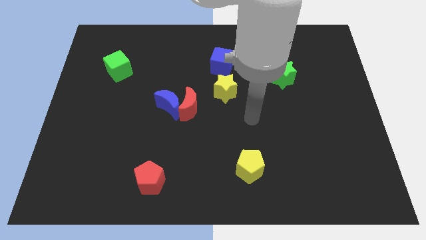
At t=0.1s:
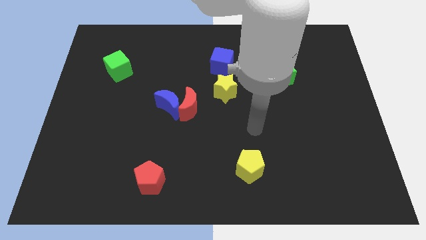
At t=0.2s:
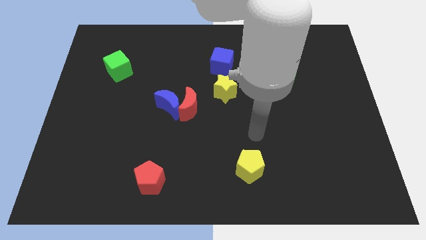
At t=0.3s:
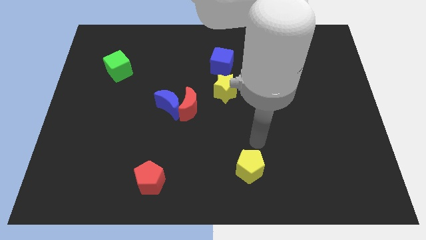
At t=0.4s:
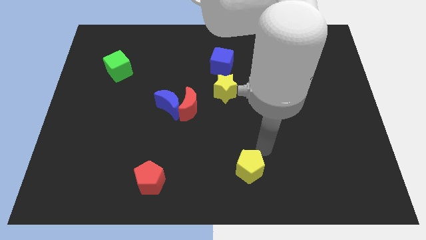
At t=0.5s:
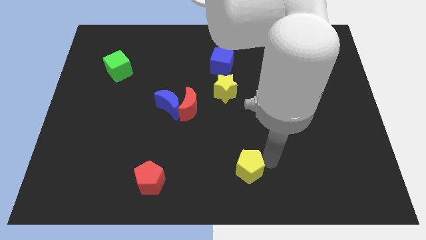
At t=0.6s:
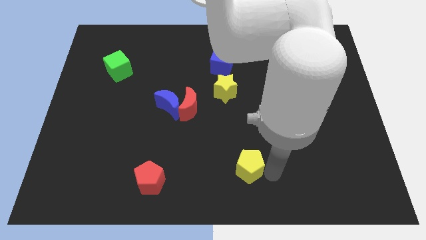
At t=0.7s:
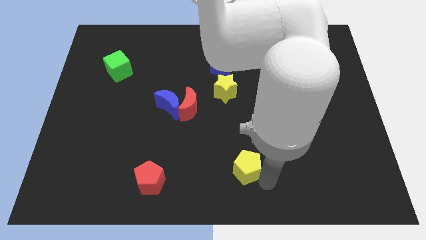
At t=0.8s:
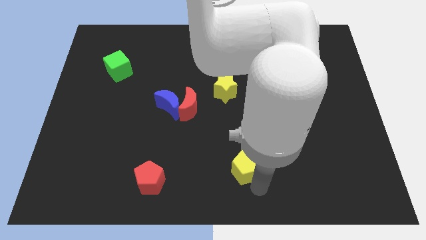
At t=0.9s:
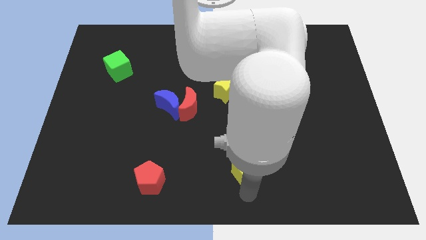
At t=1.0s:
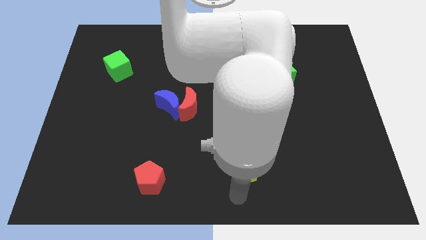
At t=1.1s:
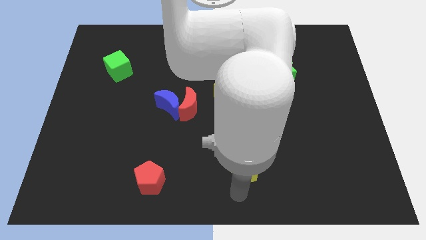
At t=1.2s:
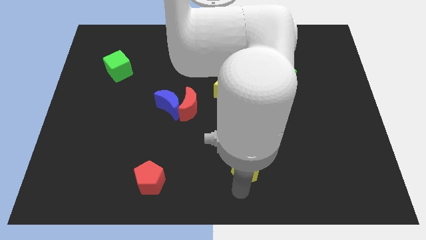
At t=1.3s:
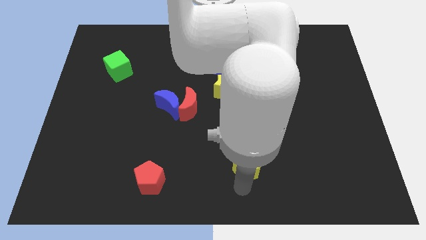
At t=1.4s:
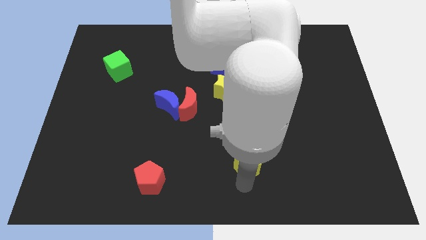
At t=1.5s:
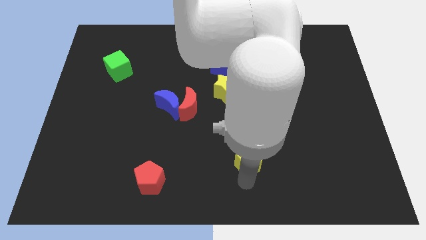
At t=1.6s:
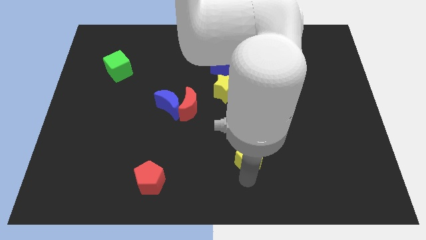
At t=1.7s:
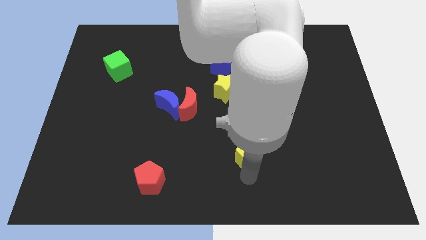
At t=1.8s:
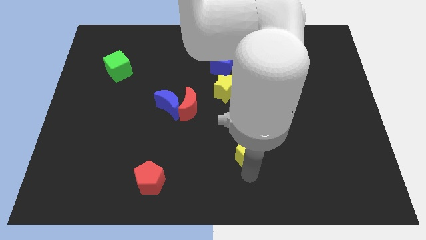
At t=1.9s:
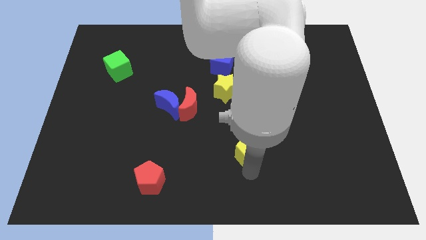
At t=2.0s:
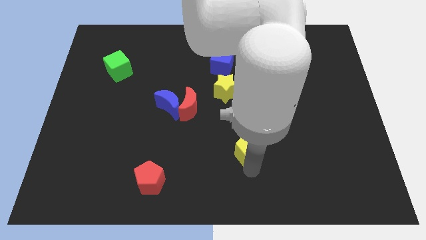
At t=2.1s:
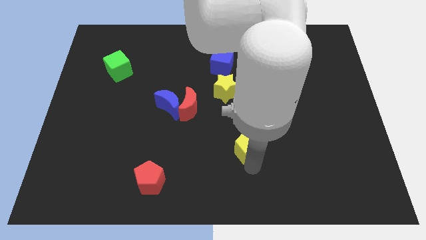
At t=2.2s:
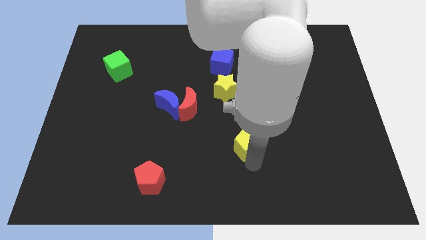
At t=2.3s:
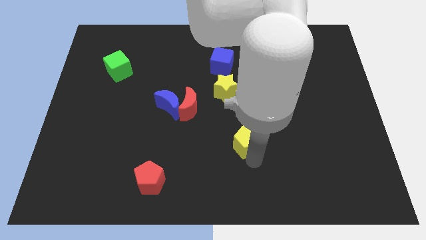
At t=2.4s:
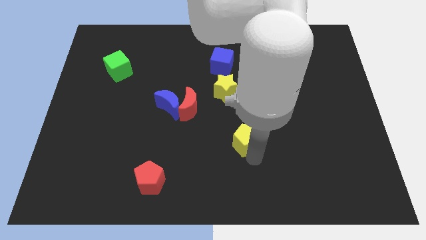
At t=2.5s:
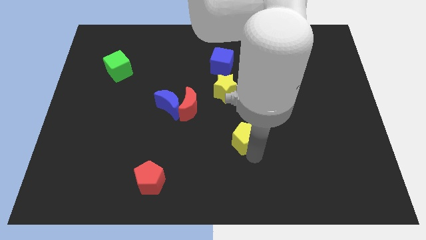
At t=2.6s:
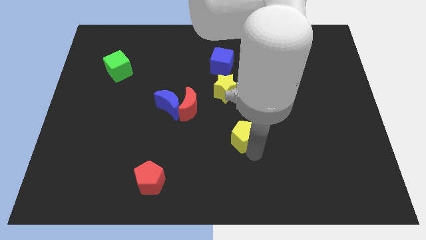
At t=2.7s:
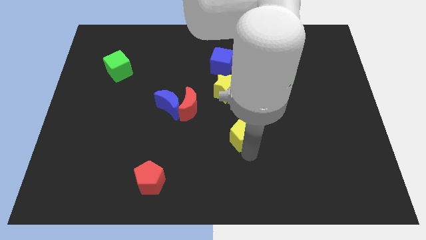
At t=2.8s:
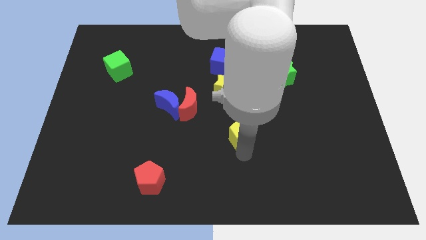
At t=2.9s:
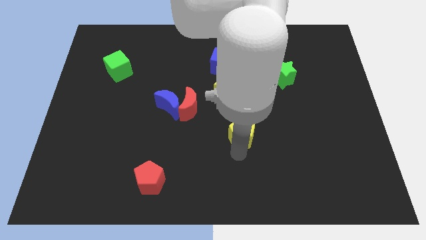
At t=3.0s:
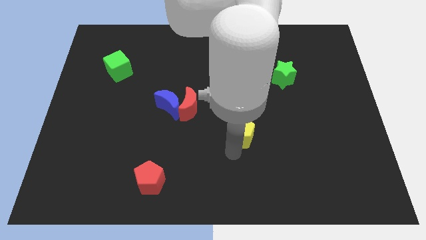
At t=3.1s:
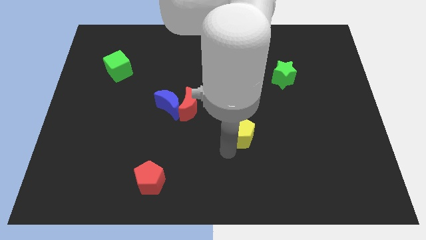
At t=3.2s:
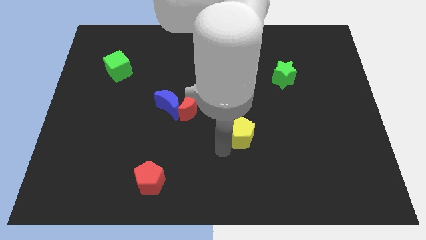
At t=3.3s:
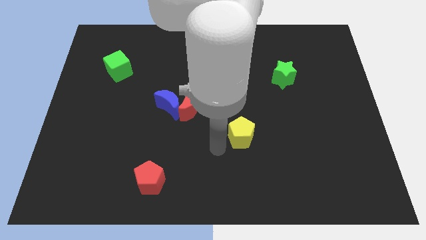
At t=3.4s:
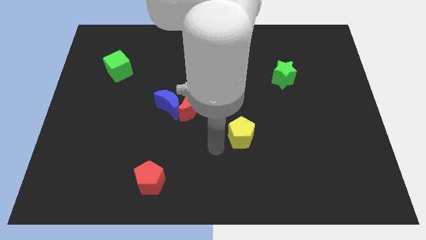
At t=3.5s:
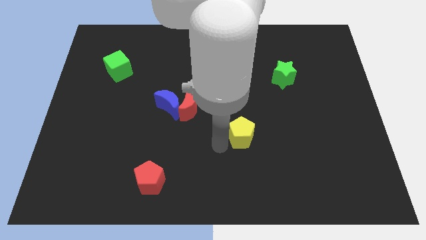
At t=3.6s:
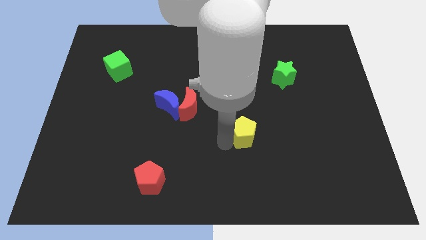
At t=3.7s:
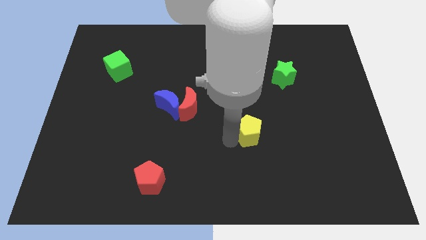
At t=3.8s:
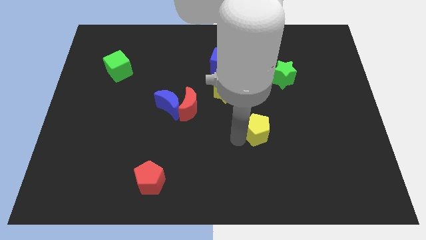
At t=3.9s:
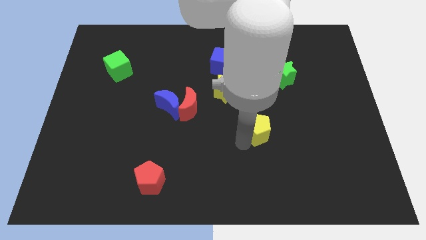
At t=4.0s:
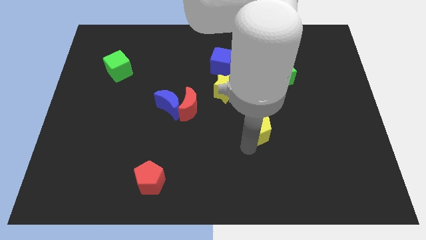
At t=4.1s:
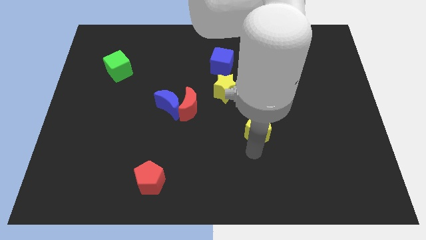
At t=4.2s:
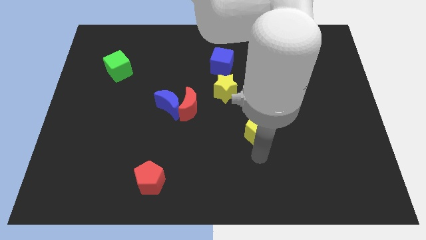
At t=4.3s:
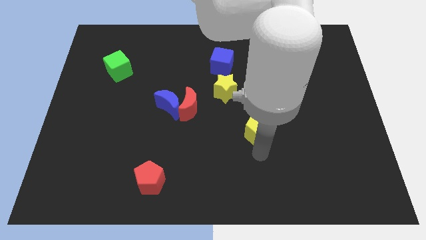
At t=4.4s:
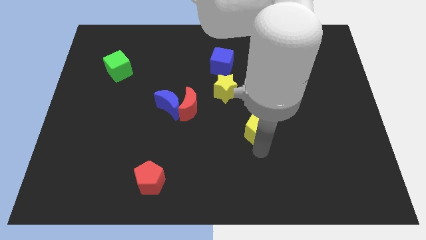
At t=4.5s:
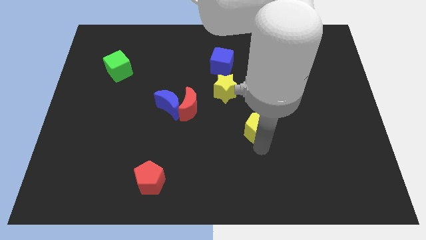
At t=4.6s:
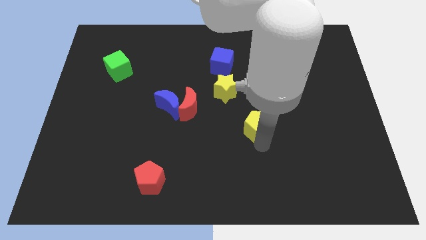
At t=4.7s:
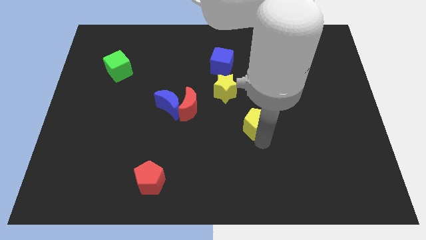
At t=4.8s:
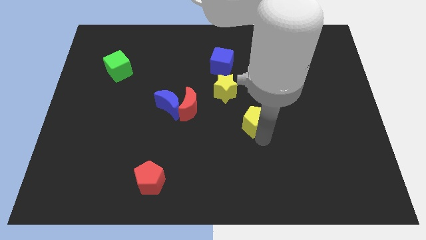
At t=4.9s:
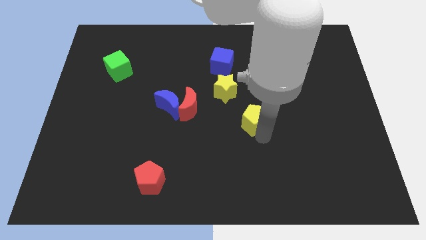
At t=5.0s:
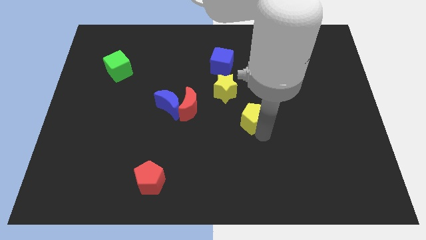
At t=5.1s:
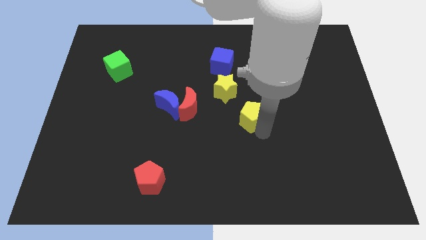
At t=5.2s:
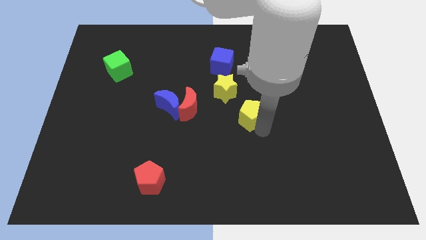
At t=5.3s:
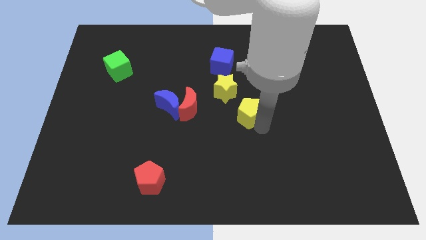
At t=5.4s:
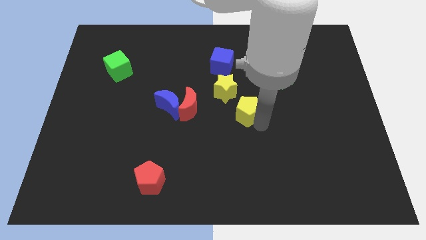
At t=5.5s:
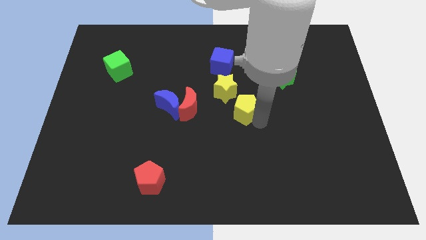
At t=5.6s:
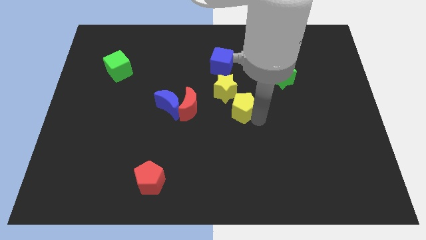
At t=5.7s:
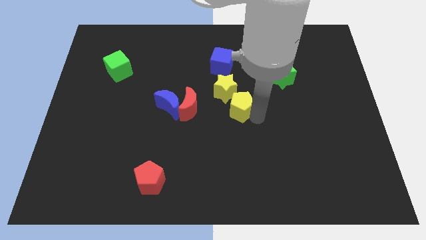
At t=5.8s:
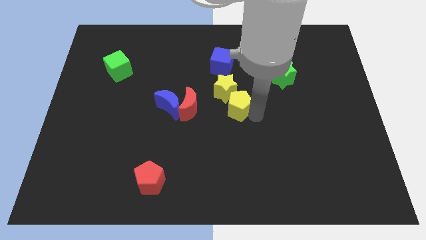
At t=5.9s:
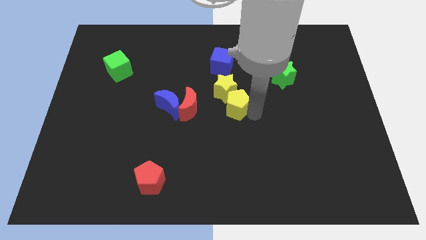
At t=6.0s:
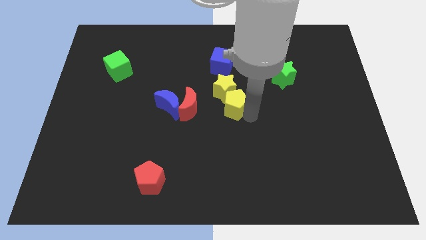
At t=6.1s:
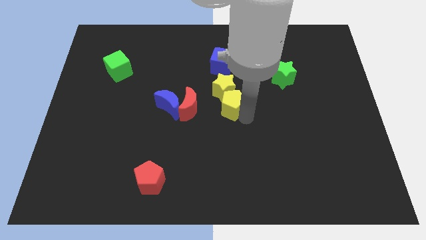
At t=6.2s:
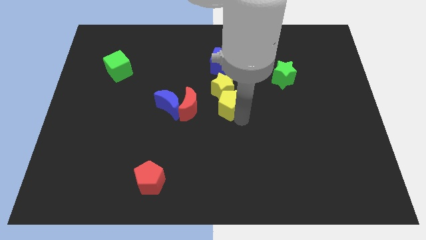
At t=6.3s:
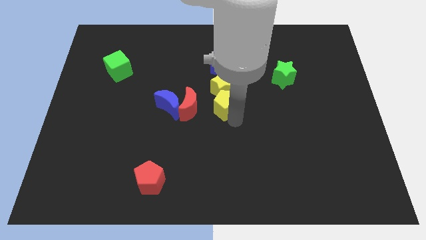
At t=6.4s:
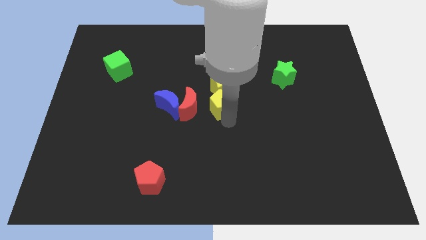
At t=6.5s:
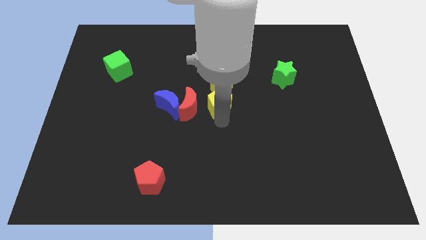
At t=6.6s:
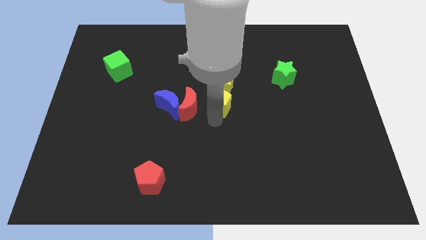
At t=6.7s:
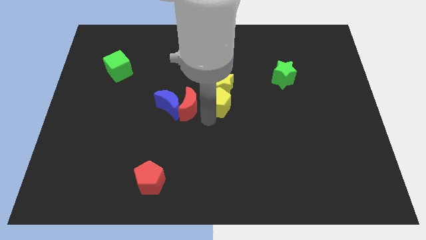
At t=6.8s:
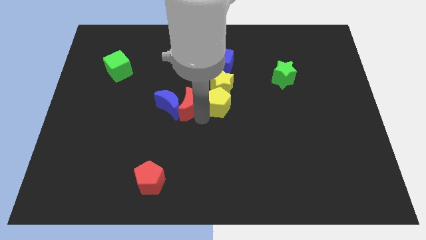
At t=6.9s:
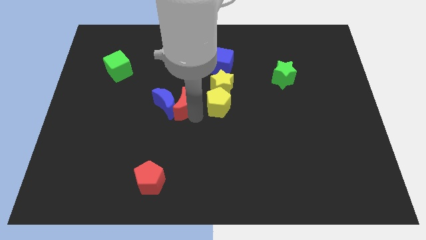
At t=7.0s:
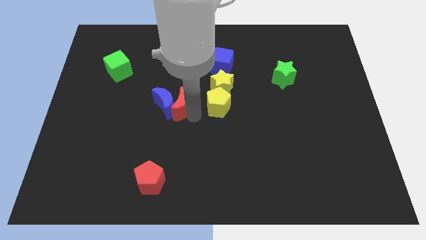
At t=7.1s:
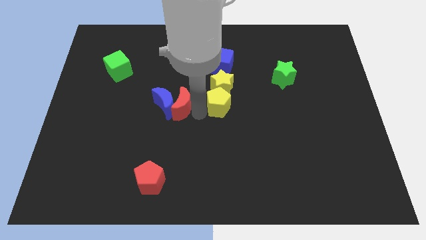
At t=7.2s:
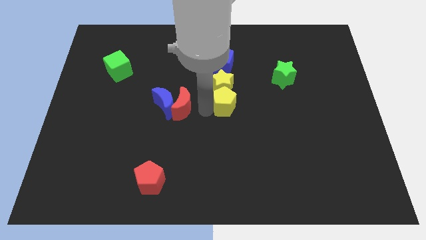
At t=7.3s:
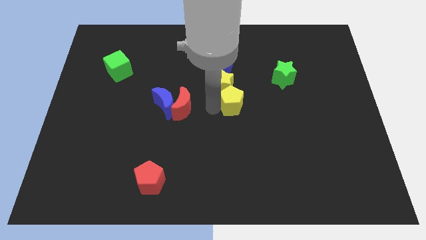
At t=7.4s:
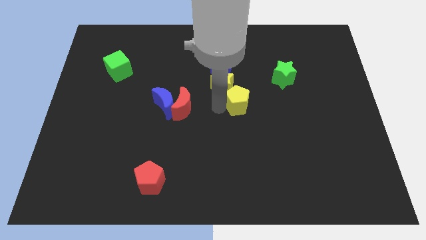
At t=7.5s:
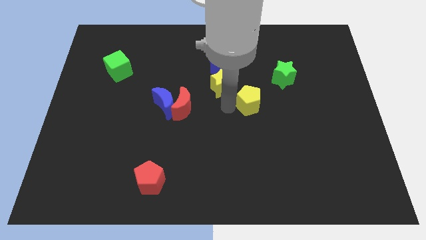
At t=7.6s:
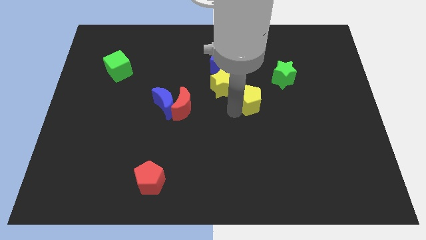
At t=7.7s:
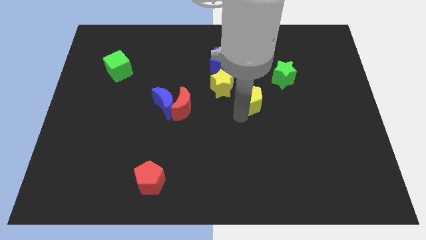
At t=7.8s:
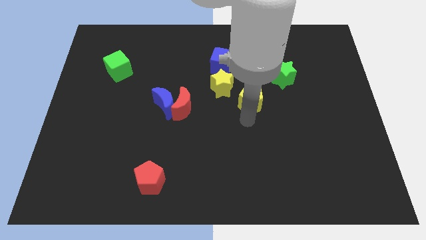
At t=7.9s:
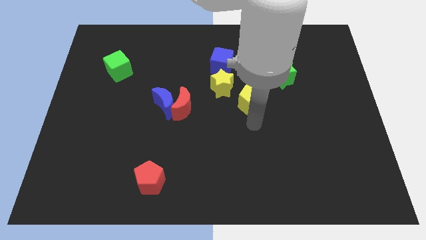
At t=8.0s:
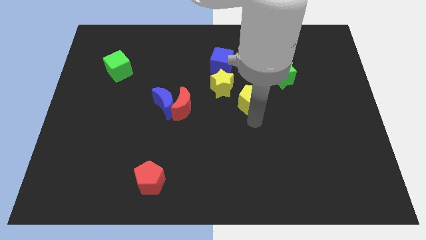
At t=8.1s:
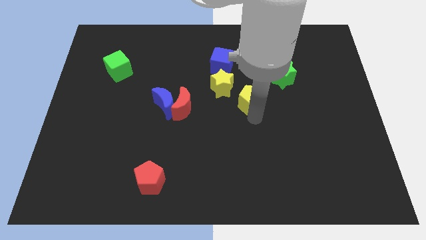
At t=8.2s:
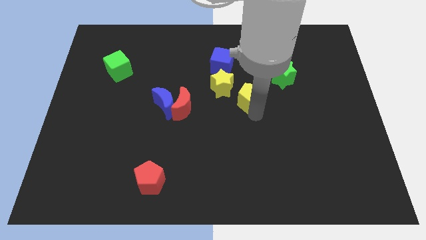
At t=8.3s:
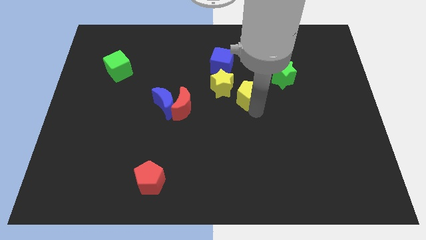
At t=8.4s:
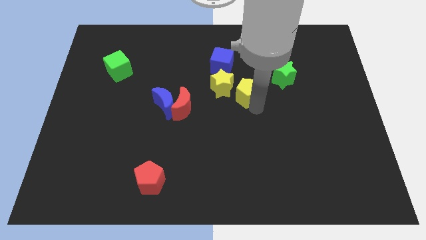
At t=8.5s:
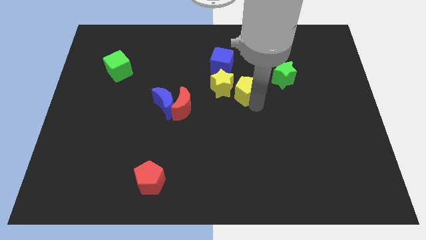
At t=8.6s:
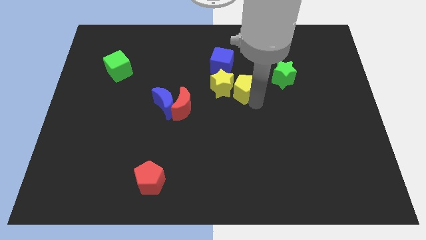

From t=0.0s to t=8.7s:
push the yellow pentagon to the top right side of the yellow star
